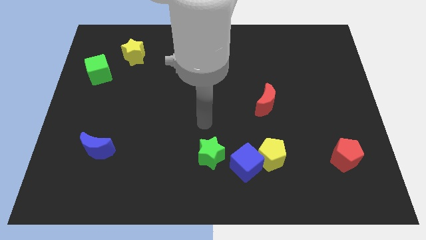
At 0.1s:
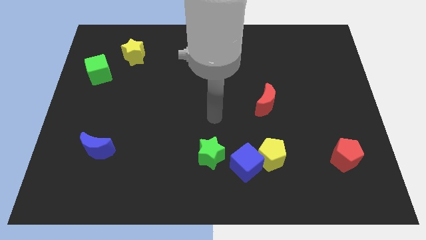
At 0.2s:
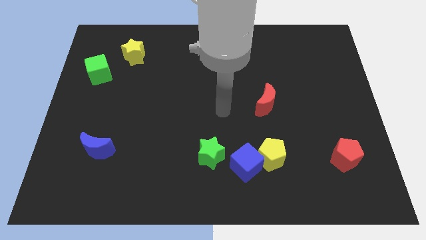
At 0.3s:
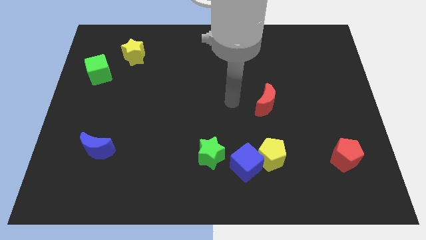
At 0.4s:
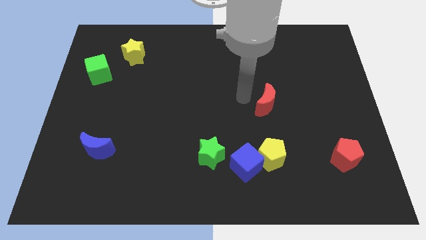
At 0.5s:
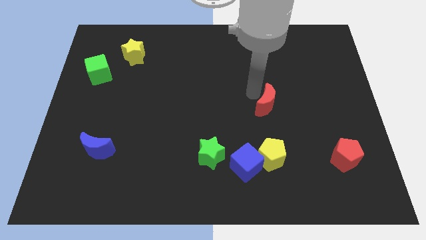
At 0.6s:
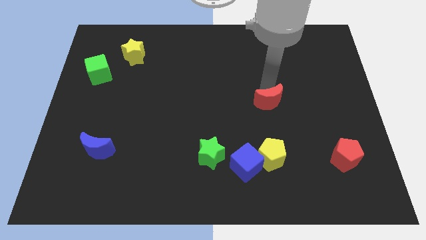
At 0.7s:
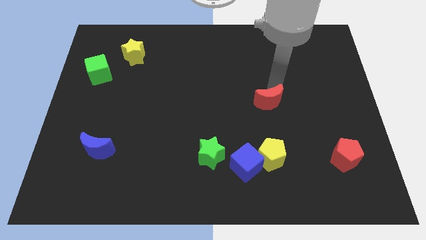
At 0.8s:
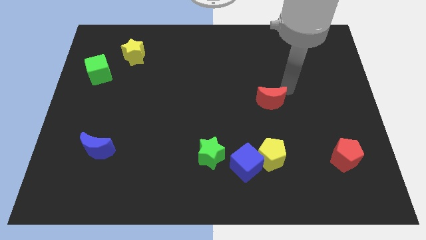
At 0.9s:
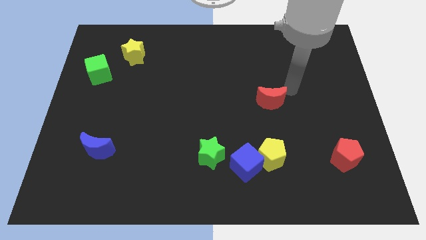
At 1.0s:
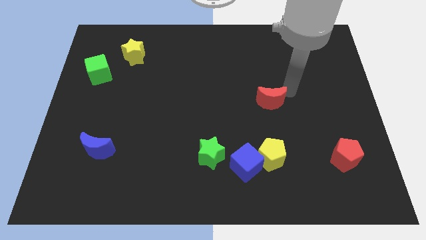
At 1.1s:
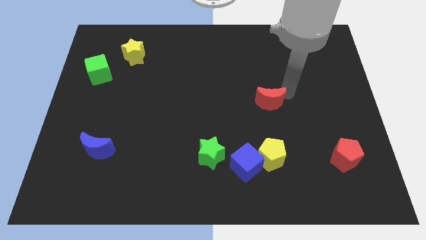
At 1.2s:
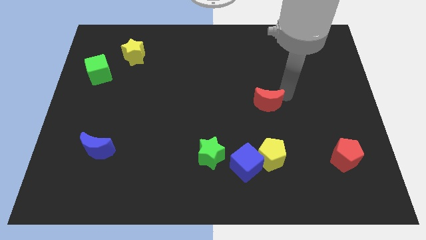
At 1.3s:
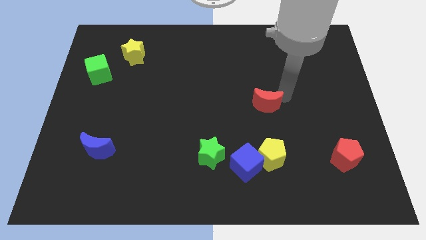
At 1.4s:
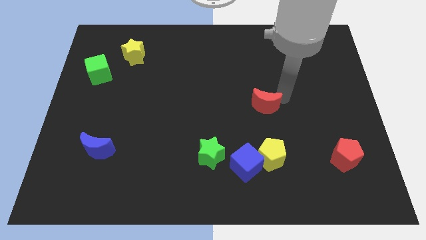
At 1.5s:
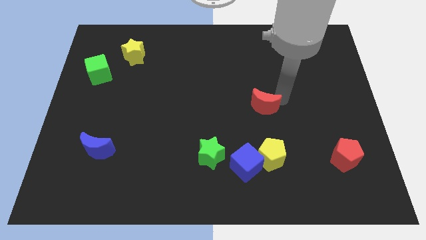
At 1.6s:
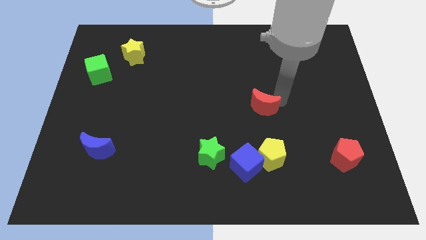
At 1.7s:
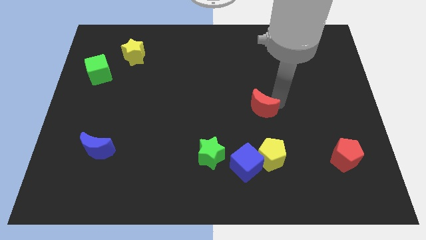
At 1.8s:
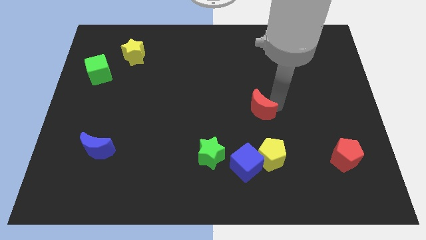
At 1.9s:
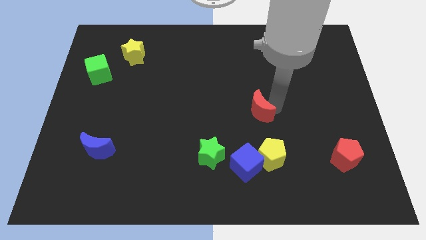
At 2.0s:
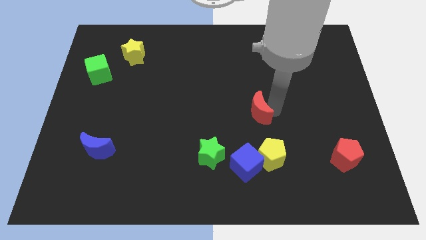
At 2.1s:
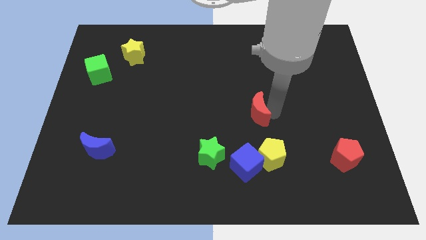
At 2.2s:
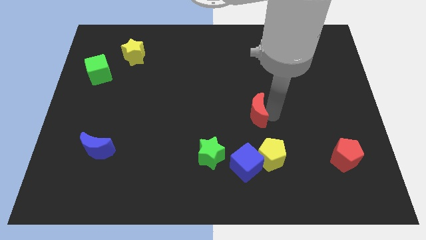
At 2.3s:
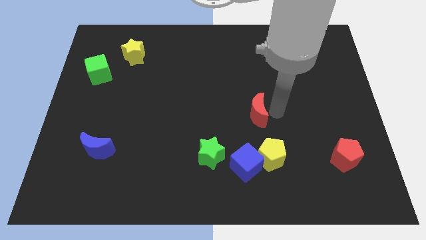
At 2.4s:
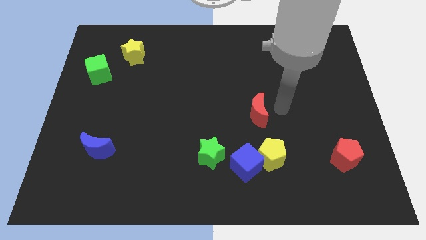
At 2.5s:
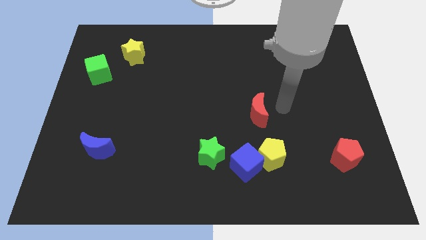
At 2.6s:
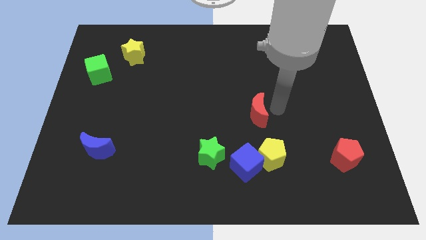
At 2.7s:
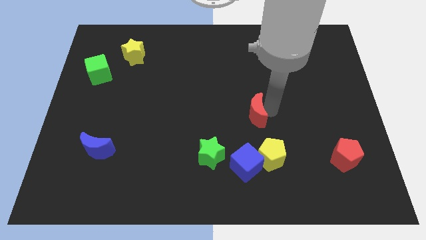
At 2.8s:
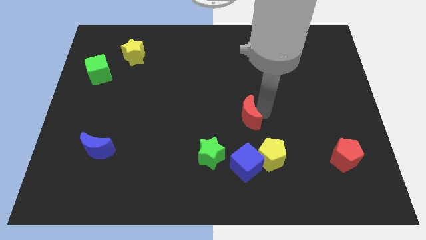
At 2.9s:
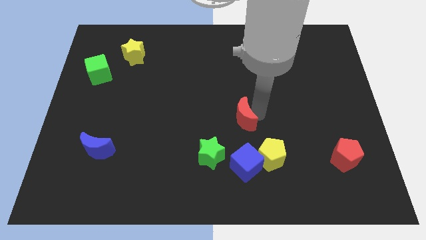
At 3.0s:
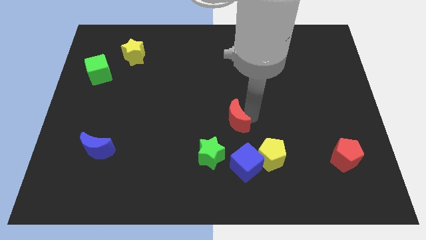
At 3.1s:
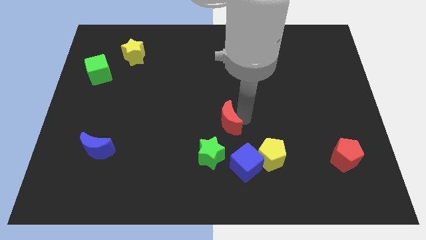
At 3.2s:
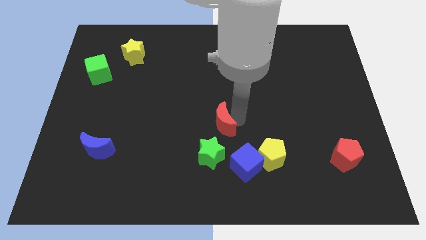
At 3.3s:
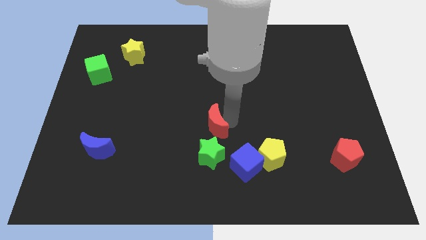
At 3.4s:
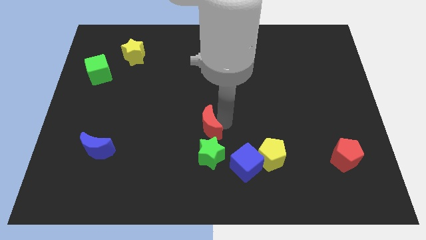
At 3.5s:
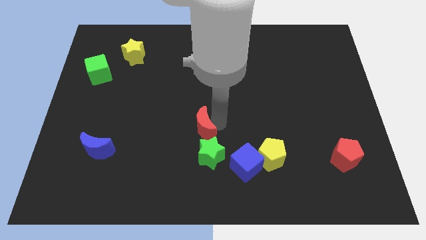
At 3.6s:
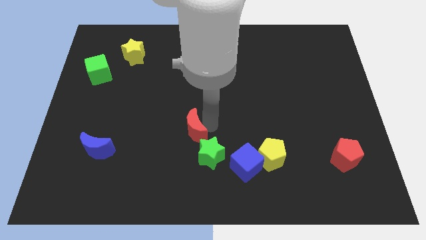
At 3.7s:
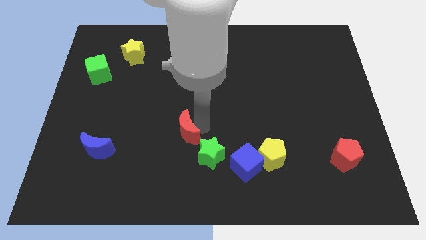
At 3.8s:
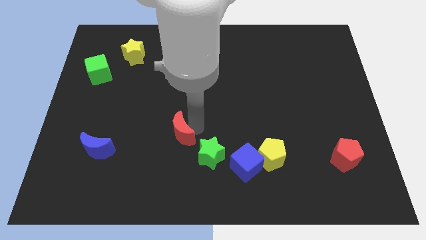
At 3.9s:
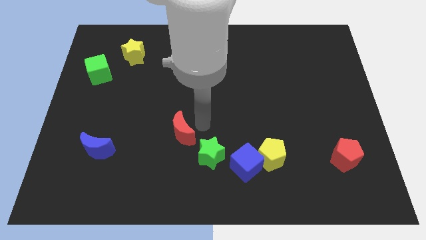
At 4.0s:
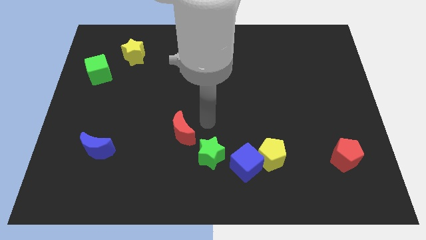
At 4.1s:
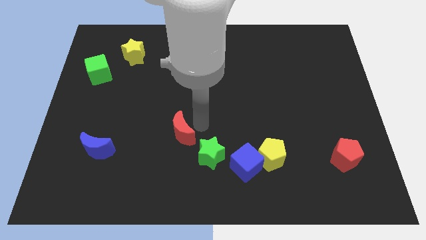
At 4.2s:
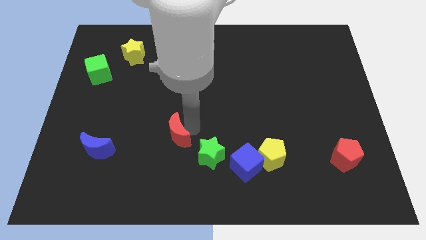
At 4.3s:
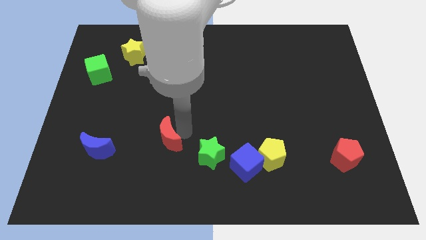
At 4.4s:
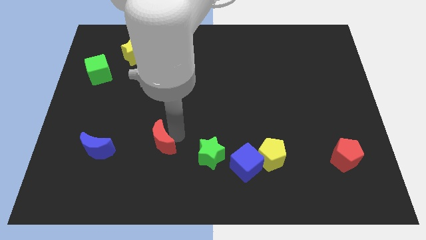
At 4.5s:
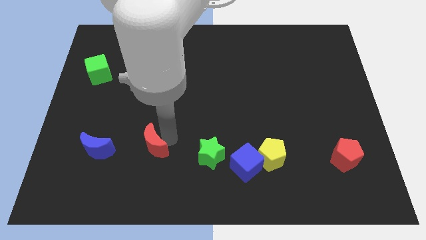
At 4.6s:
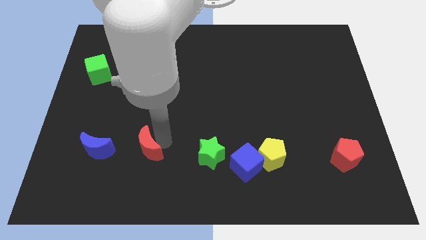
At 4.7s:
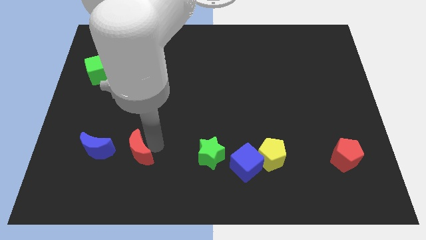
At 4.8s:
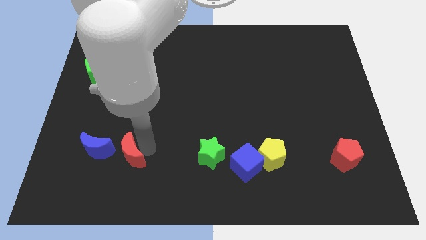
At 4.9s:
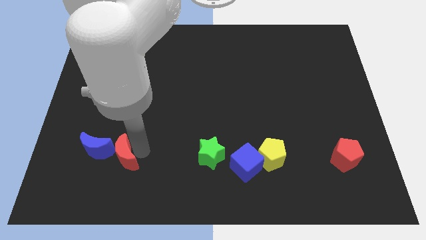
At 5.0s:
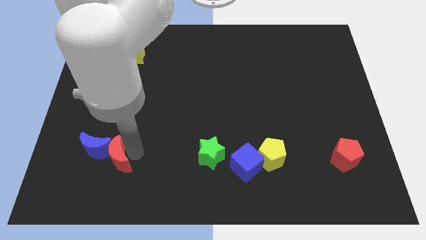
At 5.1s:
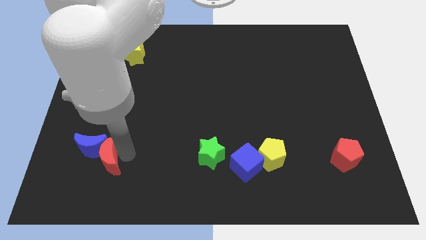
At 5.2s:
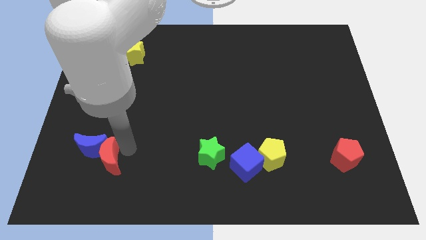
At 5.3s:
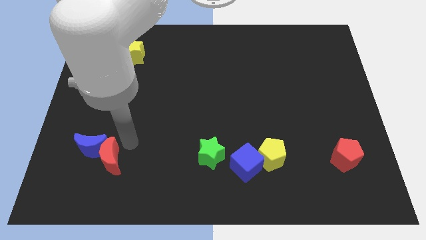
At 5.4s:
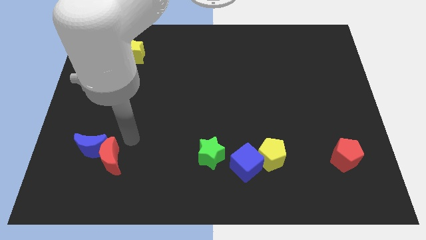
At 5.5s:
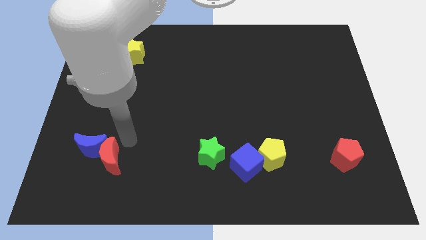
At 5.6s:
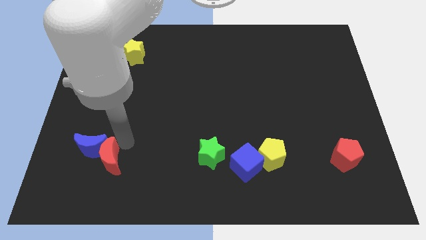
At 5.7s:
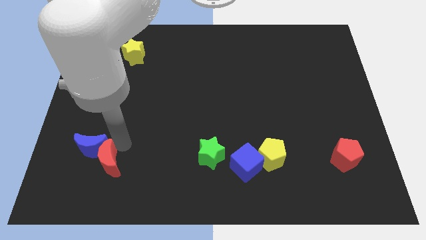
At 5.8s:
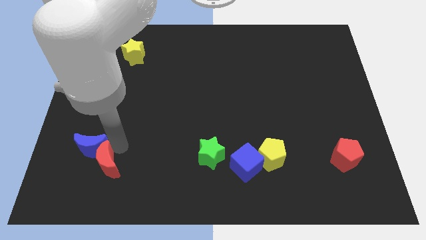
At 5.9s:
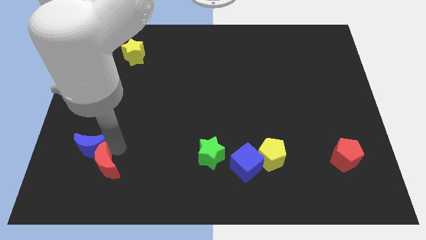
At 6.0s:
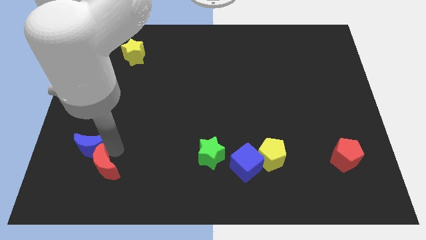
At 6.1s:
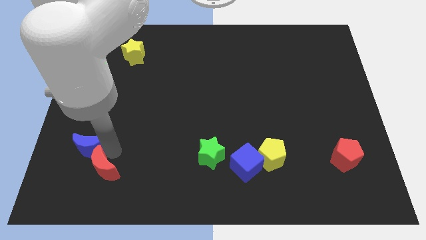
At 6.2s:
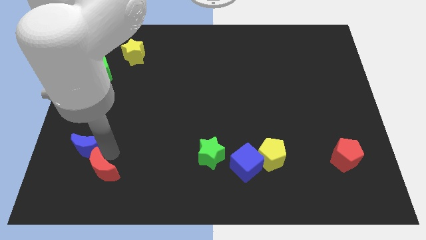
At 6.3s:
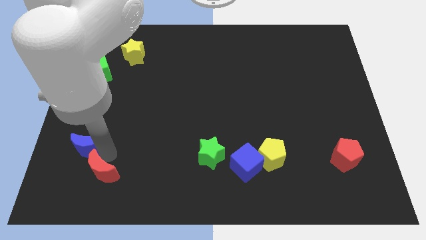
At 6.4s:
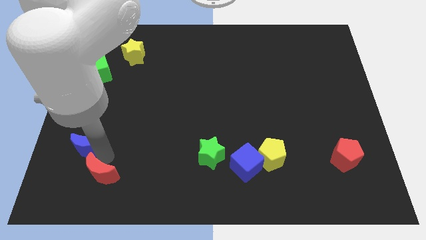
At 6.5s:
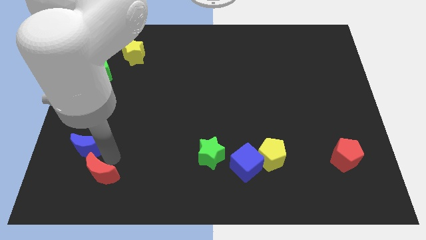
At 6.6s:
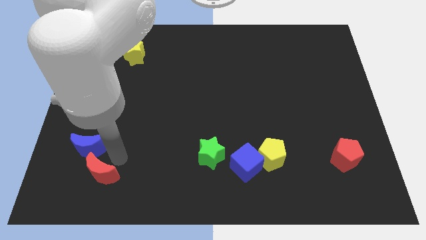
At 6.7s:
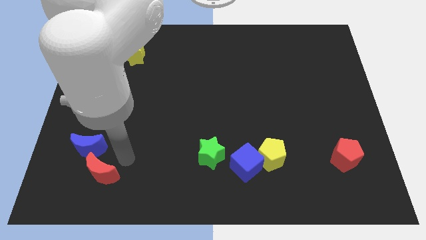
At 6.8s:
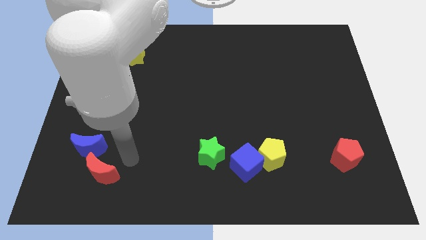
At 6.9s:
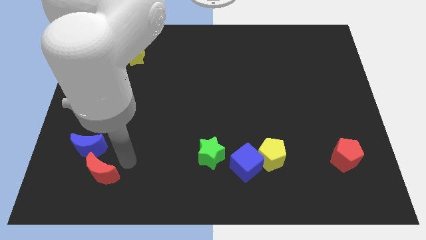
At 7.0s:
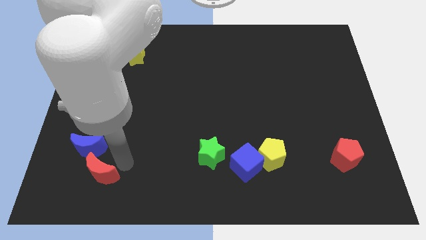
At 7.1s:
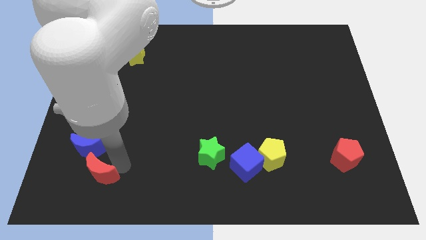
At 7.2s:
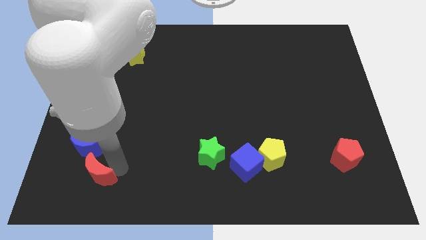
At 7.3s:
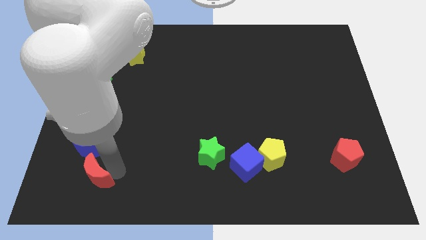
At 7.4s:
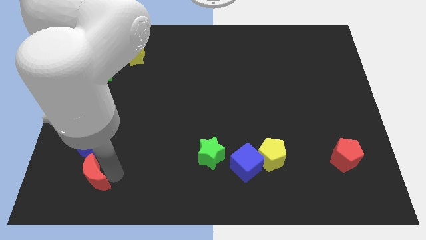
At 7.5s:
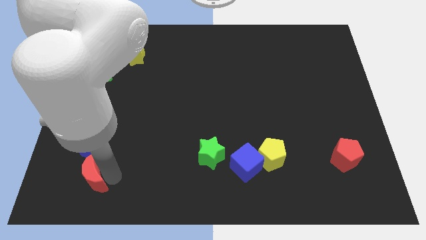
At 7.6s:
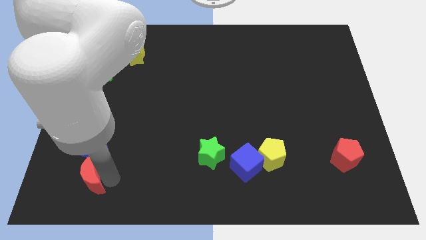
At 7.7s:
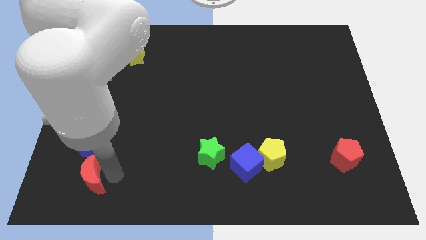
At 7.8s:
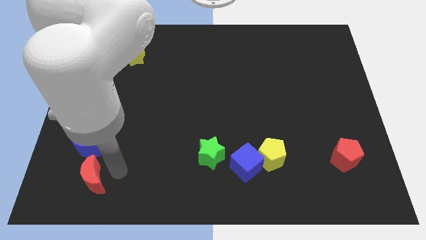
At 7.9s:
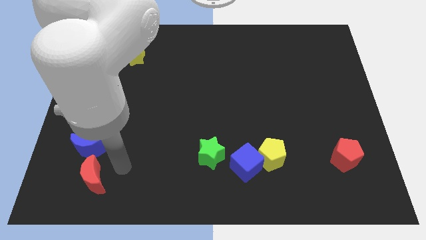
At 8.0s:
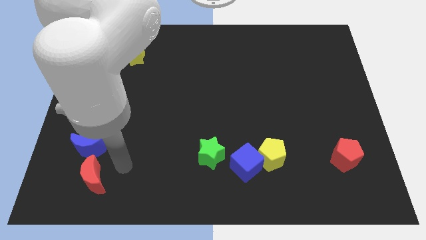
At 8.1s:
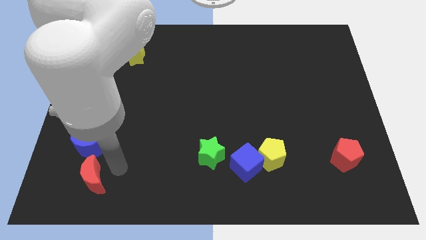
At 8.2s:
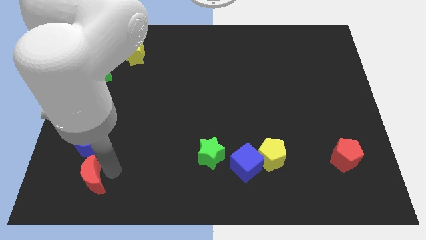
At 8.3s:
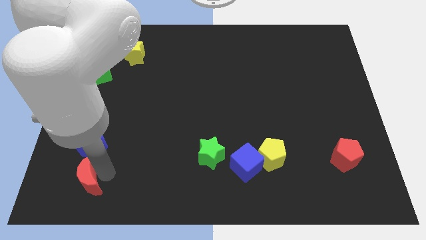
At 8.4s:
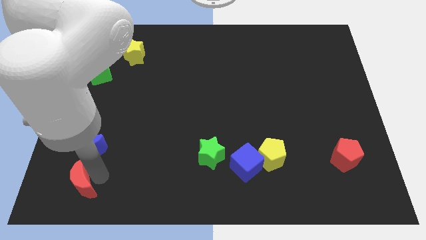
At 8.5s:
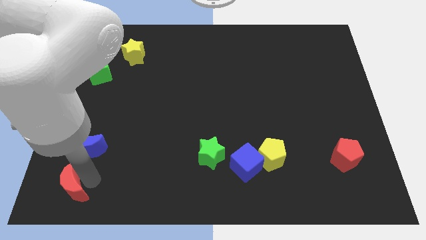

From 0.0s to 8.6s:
push the red moon to the bottom left corner
